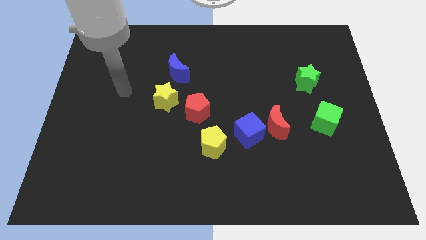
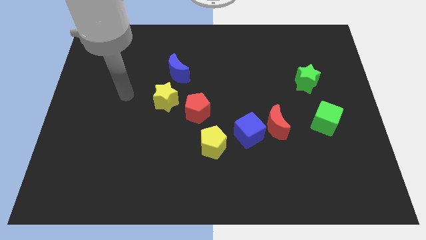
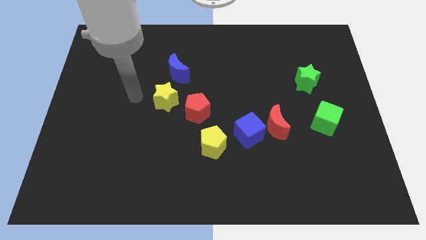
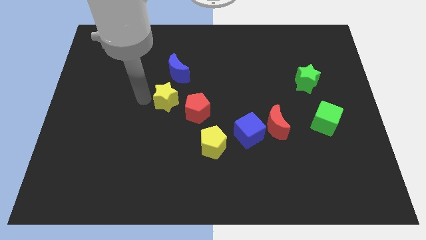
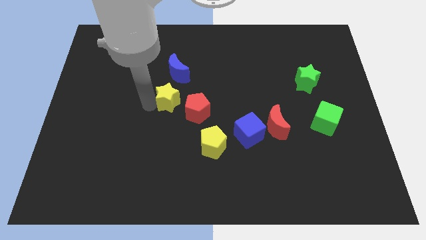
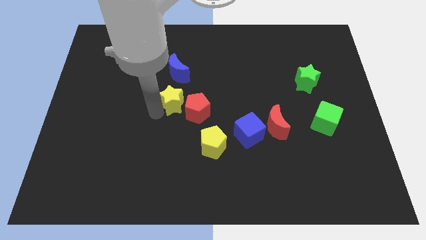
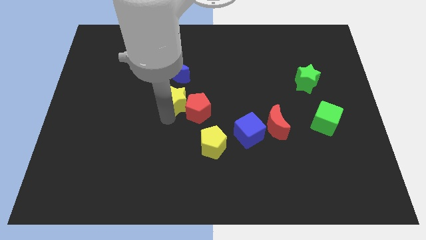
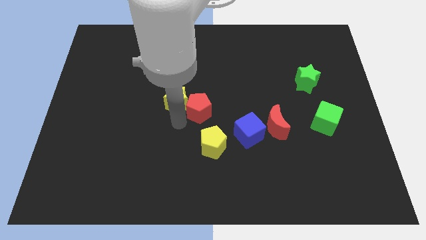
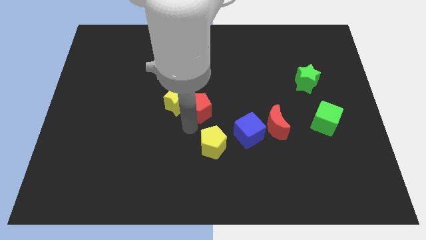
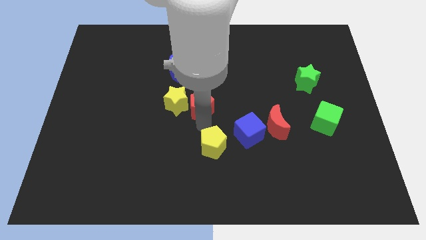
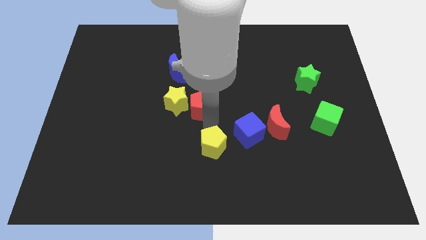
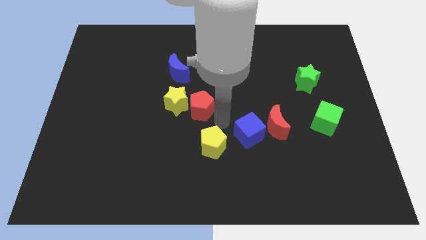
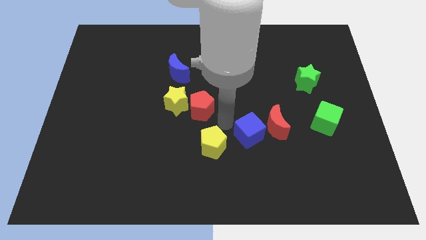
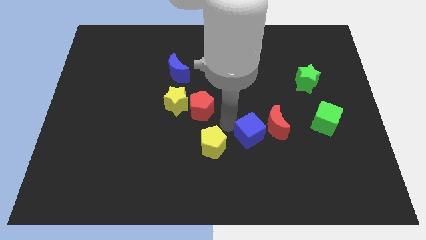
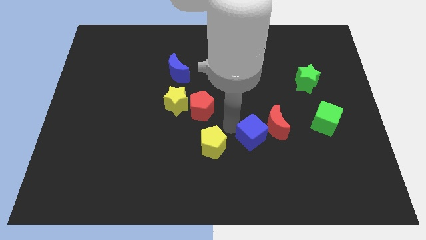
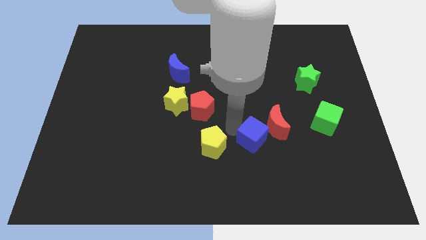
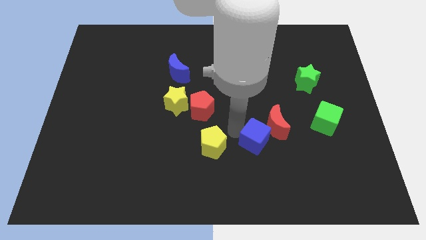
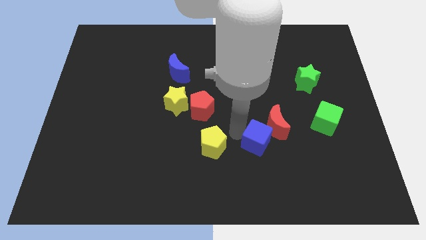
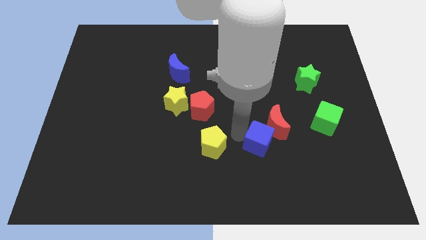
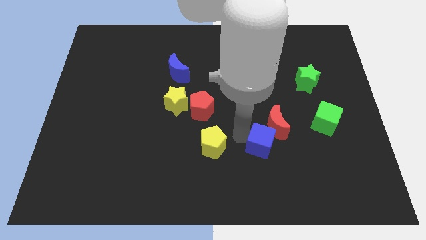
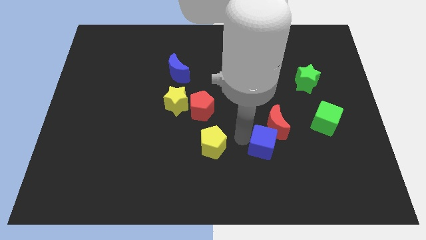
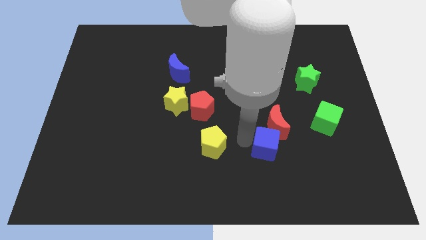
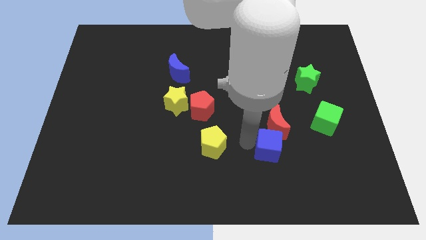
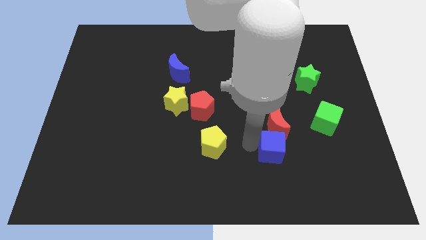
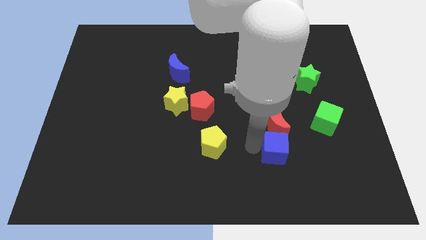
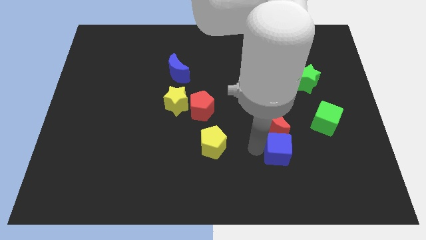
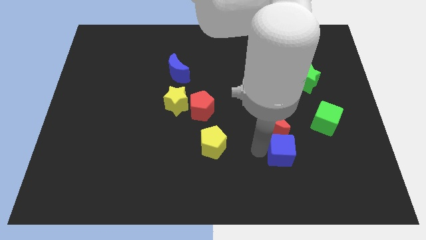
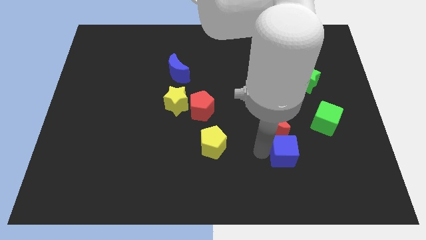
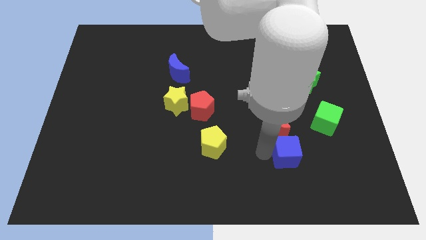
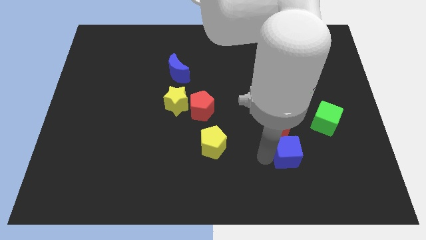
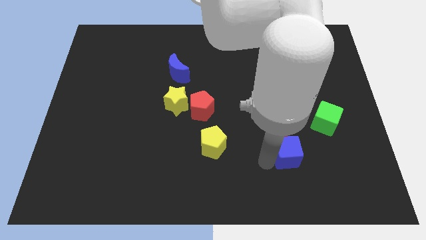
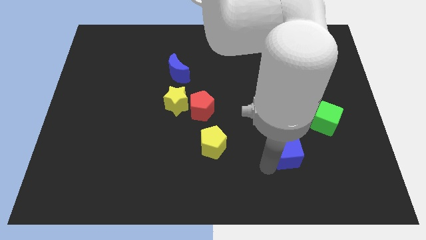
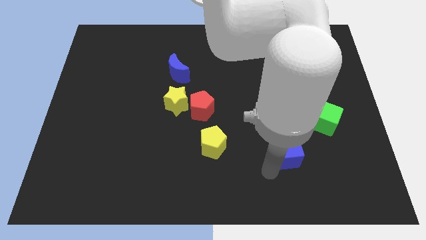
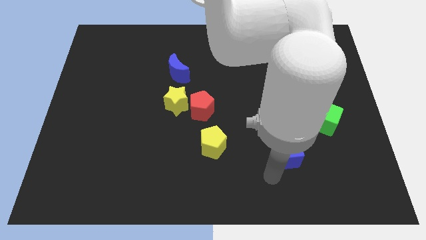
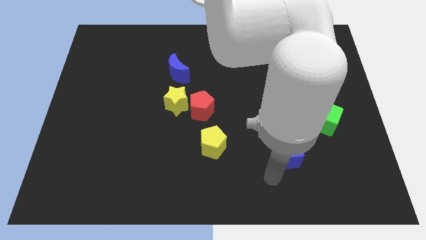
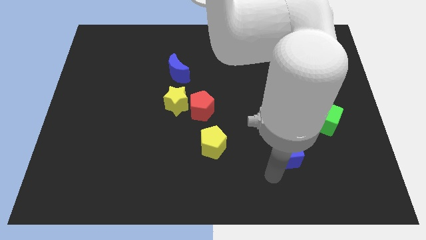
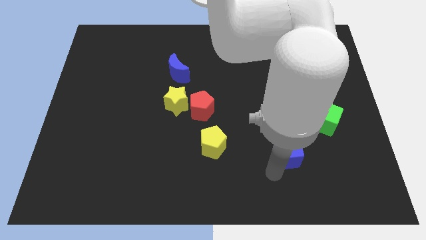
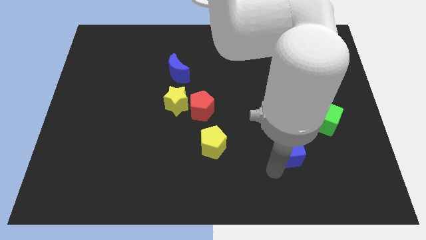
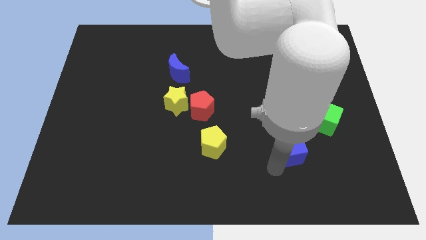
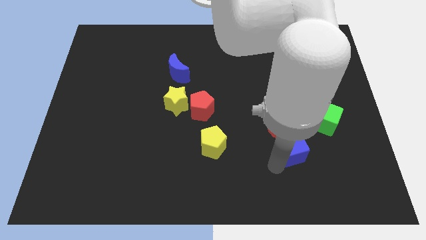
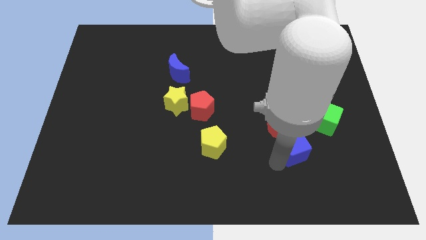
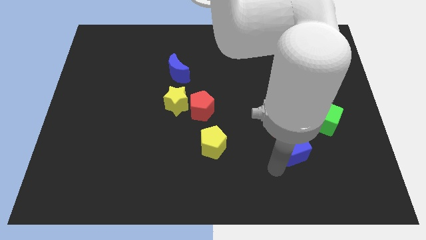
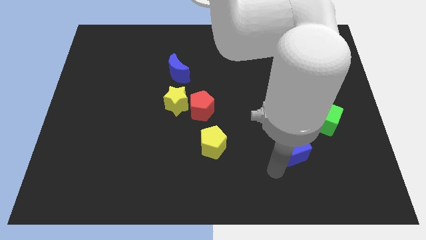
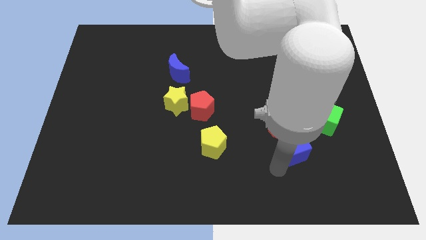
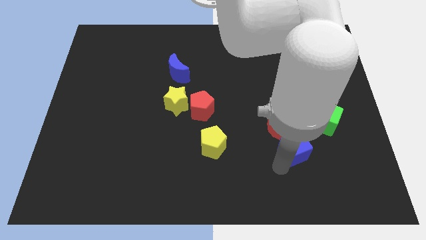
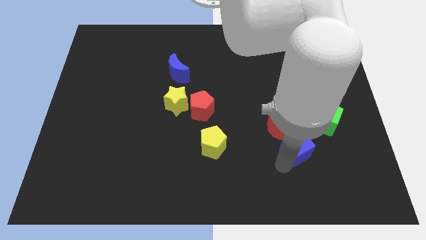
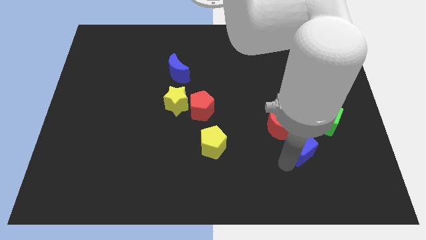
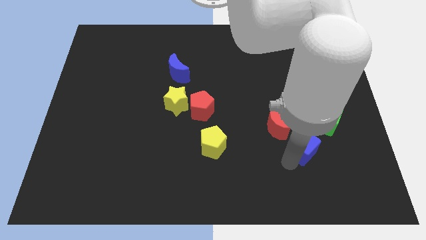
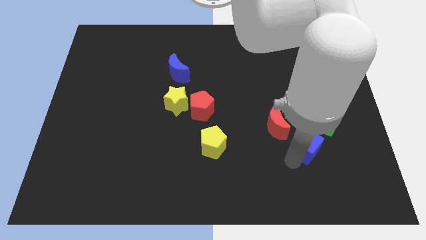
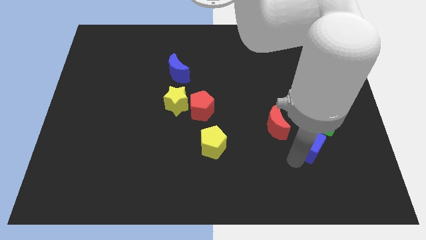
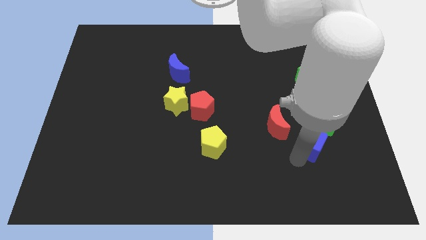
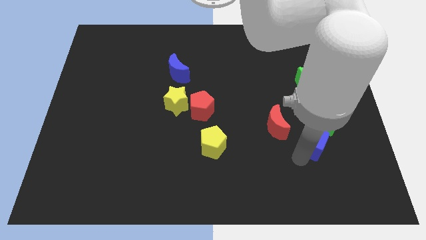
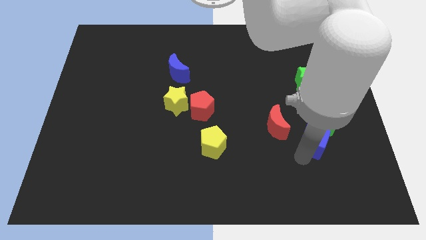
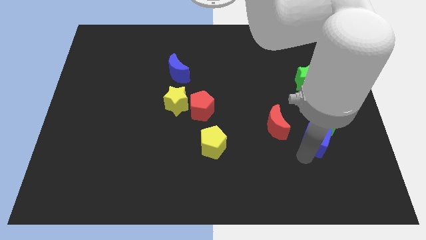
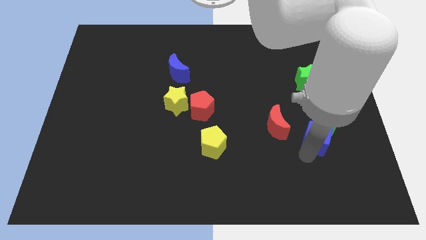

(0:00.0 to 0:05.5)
put the blue cube next to the green cube

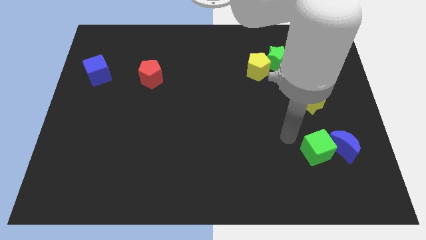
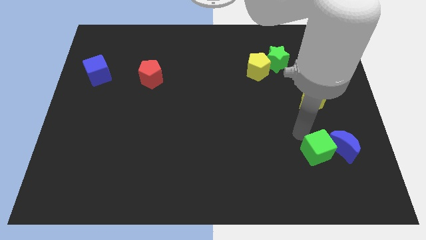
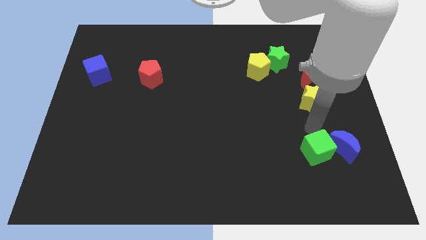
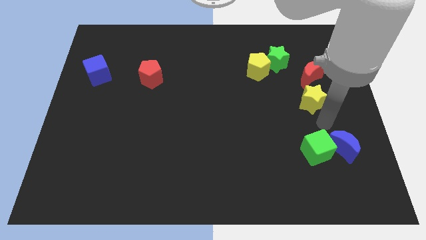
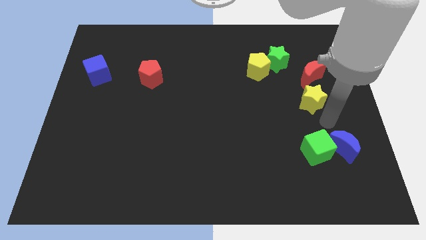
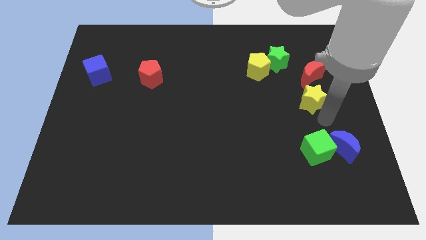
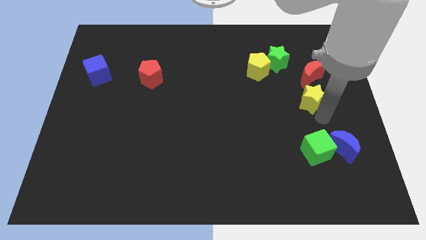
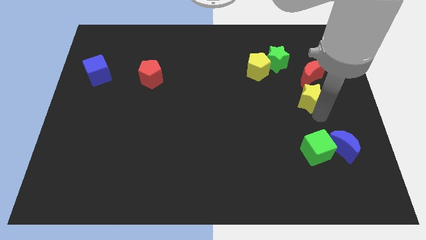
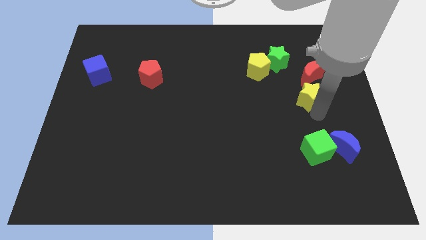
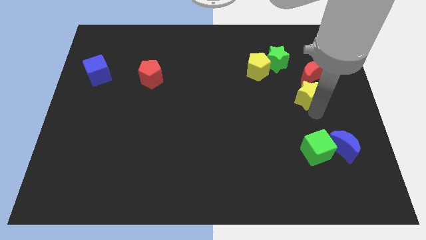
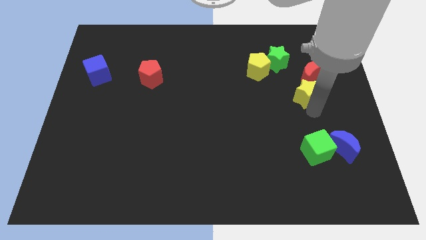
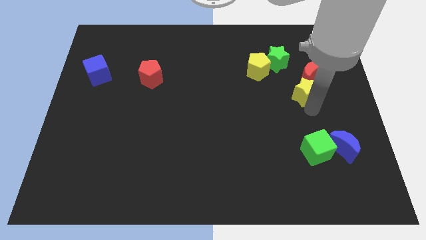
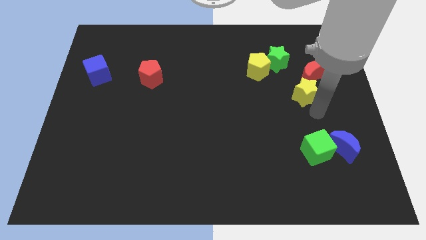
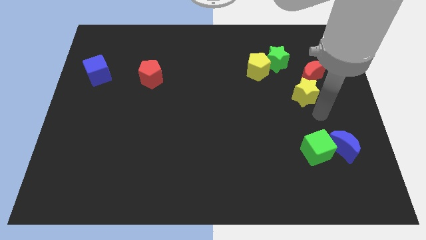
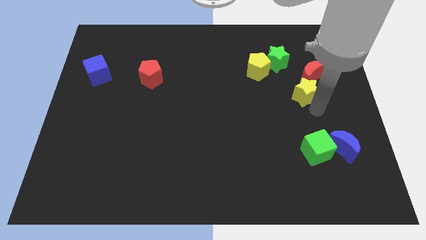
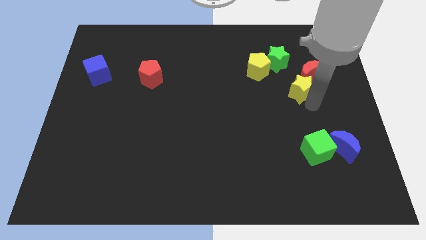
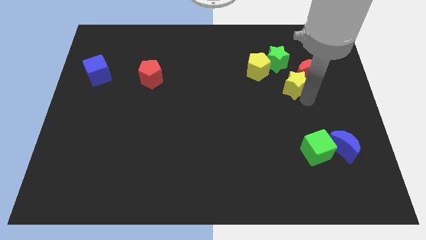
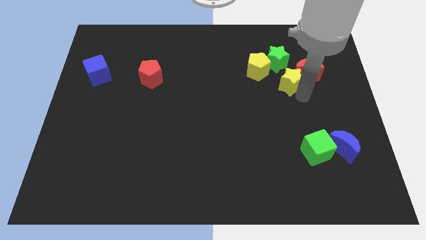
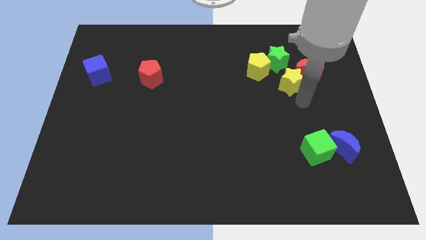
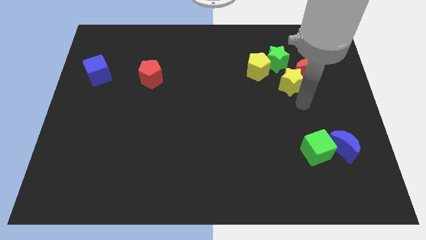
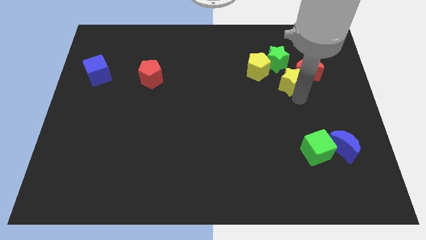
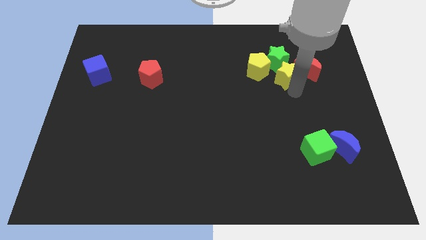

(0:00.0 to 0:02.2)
put the yellow star to the green star

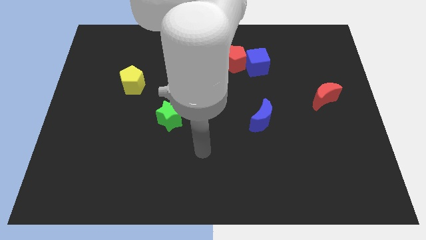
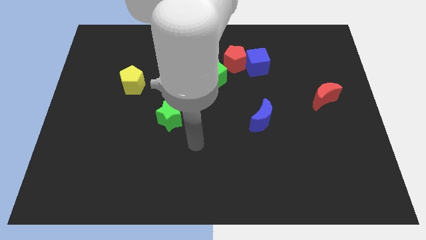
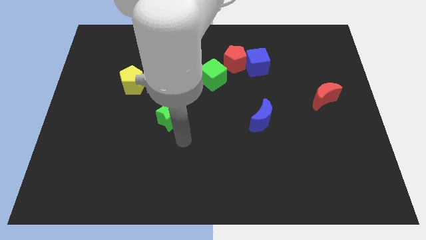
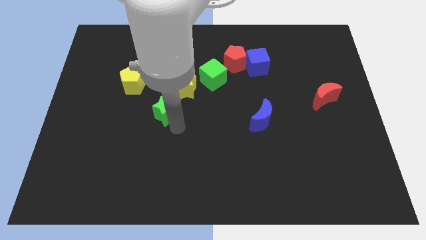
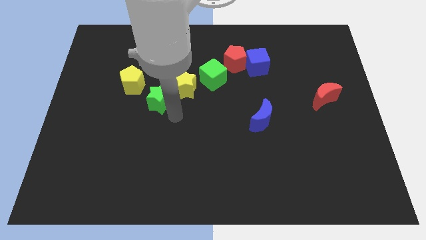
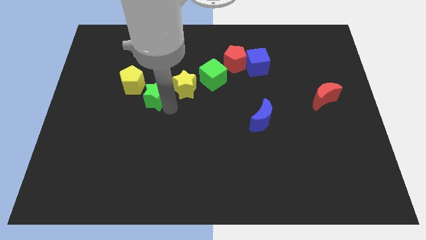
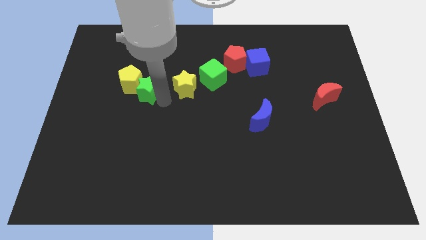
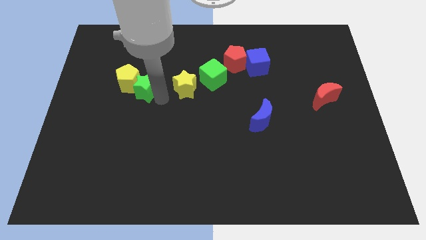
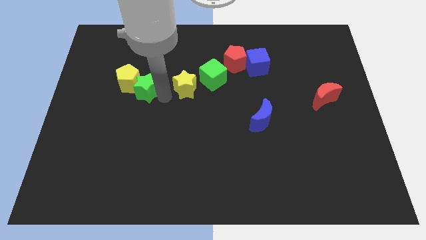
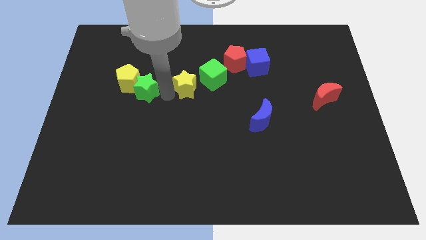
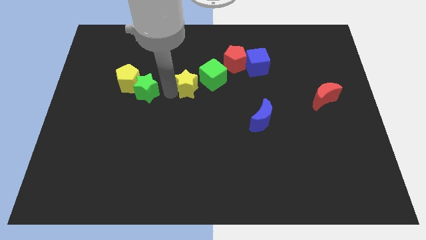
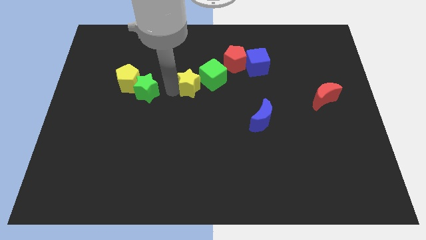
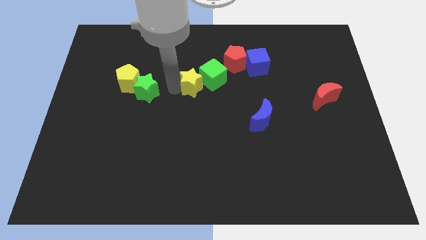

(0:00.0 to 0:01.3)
move the yellow star close to the green cube
